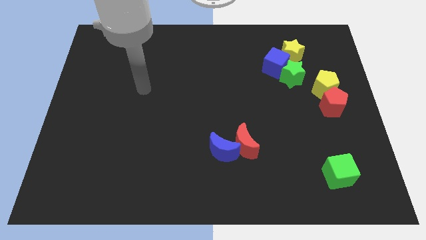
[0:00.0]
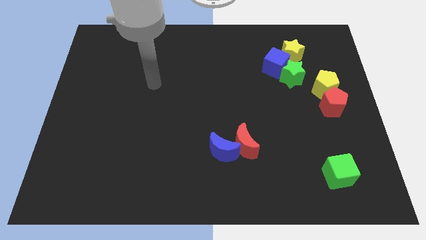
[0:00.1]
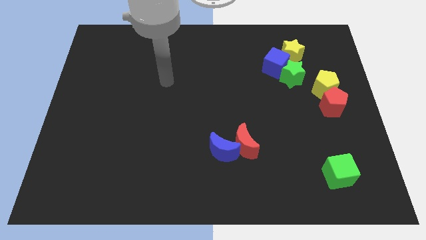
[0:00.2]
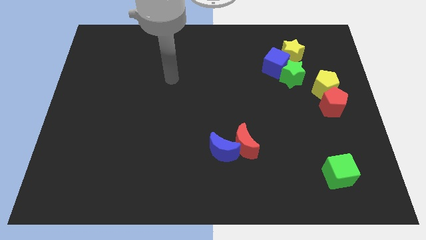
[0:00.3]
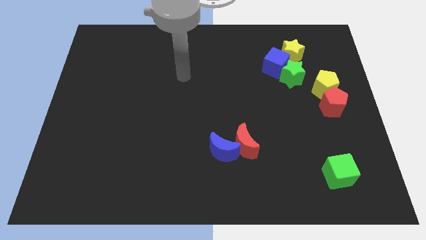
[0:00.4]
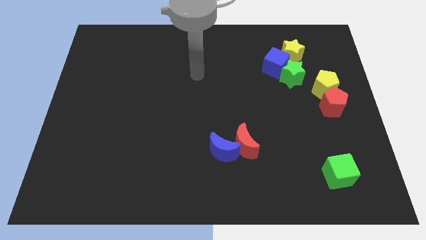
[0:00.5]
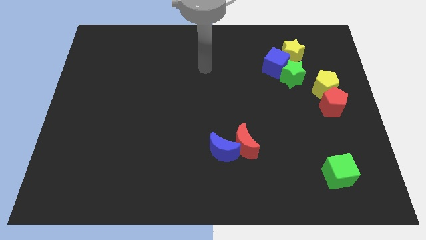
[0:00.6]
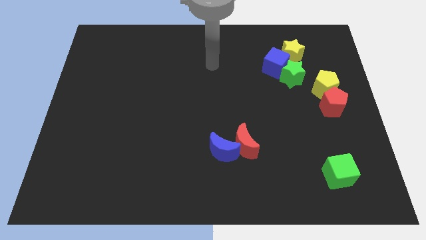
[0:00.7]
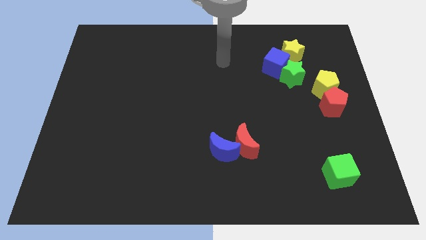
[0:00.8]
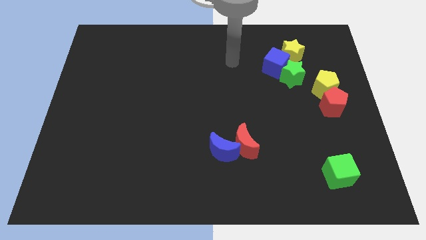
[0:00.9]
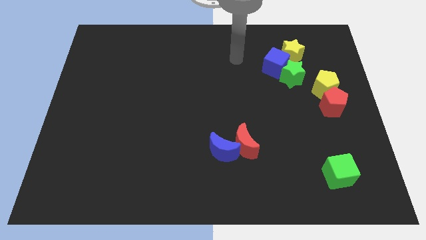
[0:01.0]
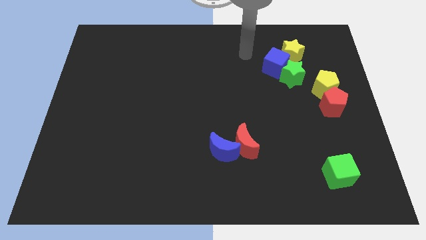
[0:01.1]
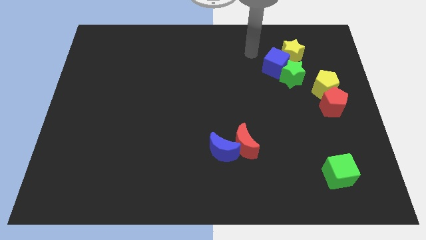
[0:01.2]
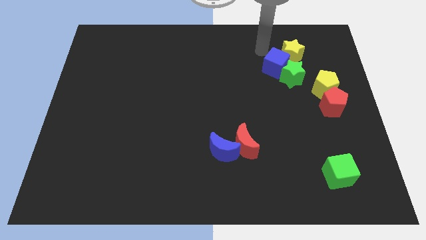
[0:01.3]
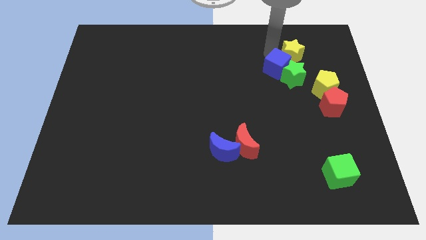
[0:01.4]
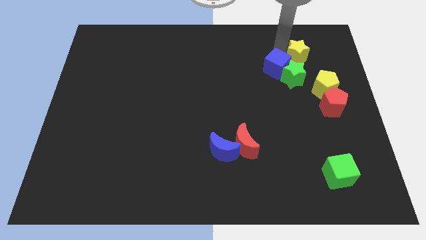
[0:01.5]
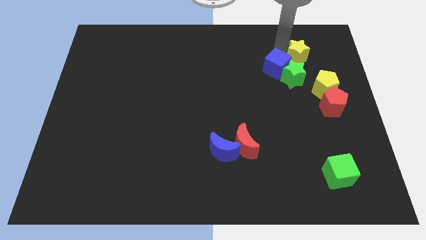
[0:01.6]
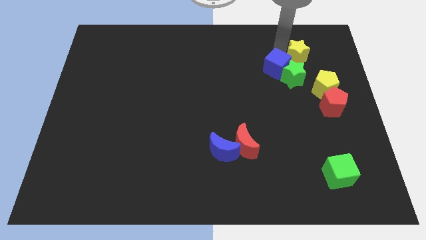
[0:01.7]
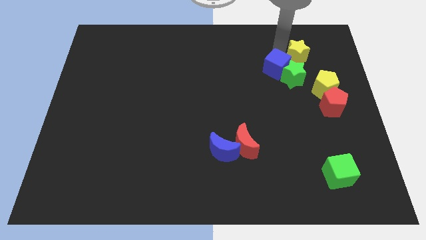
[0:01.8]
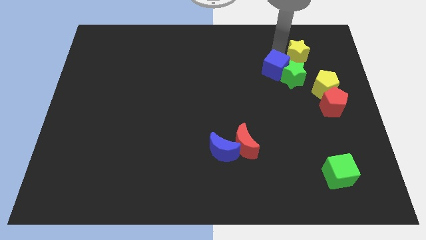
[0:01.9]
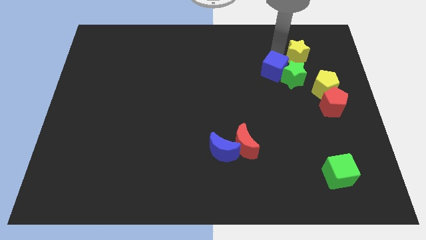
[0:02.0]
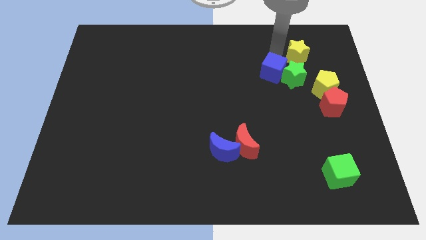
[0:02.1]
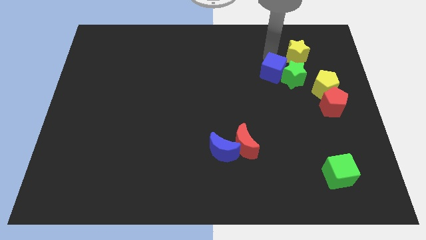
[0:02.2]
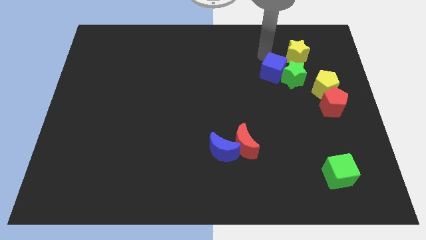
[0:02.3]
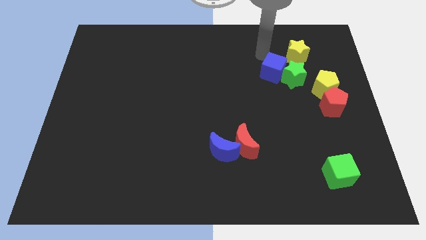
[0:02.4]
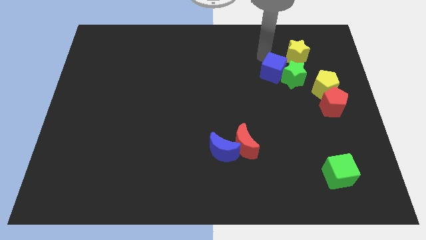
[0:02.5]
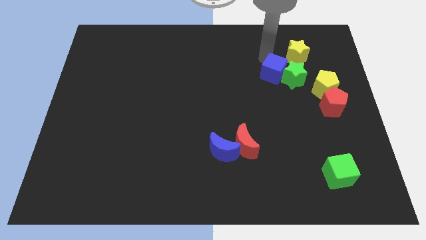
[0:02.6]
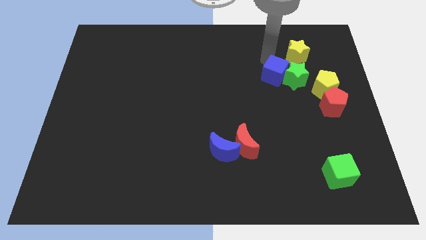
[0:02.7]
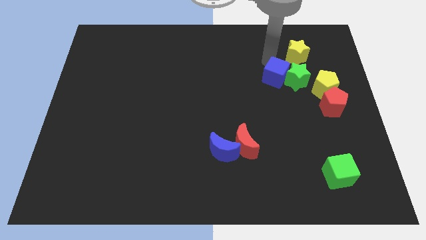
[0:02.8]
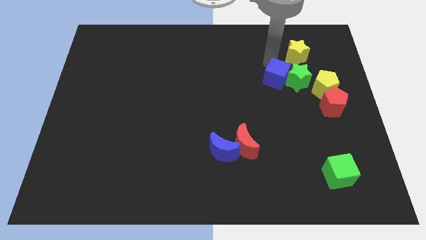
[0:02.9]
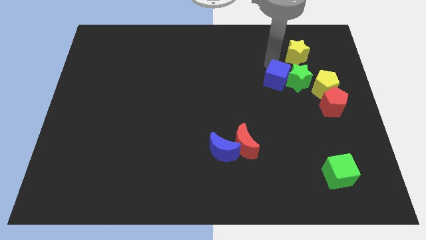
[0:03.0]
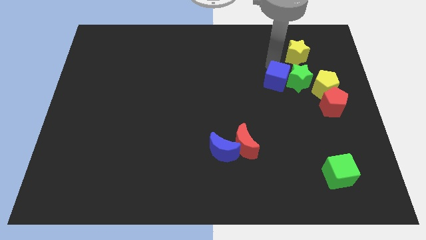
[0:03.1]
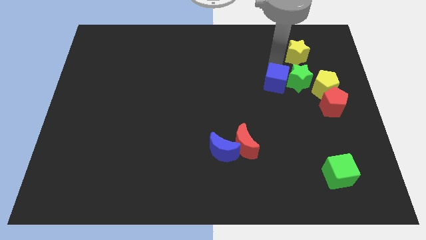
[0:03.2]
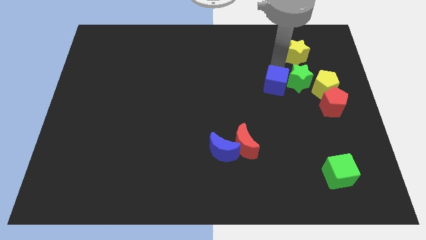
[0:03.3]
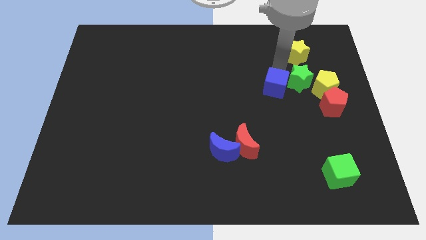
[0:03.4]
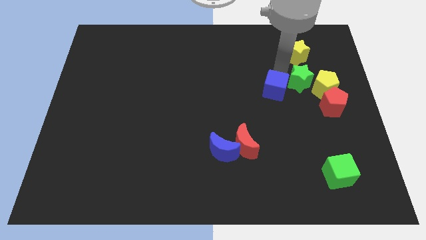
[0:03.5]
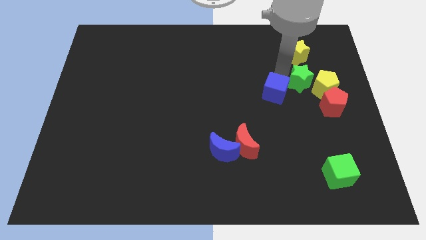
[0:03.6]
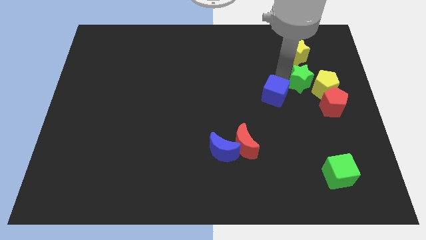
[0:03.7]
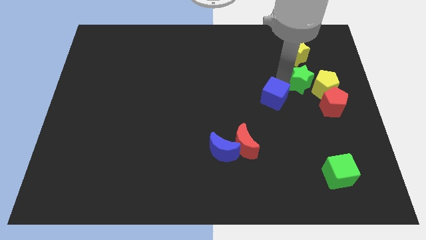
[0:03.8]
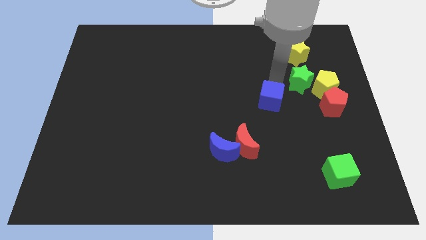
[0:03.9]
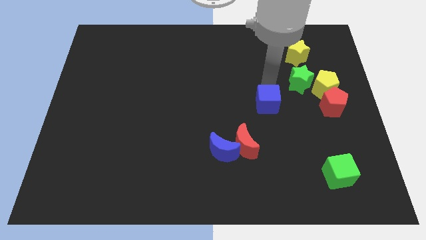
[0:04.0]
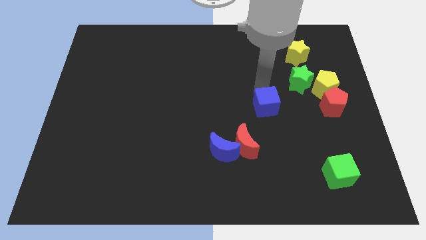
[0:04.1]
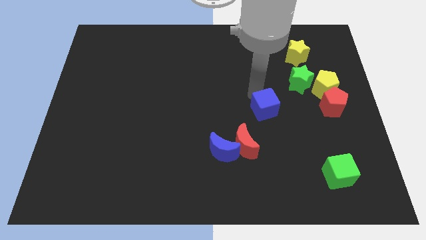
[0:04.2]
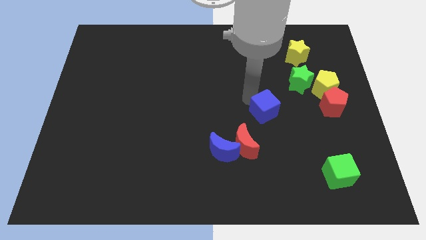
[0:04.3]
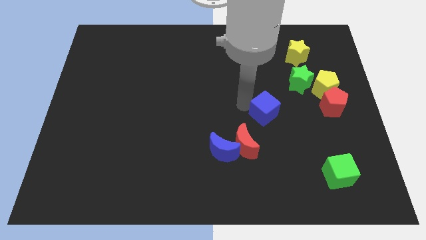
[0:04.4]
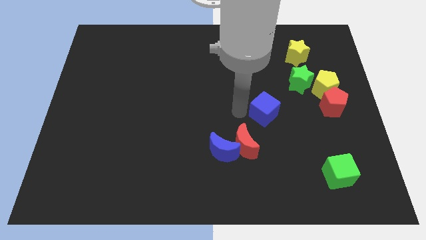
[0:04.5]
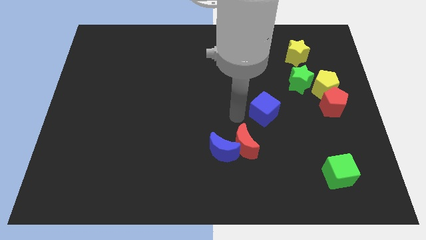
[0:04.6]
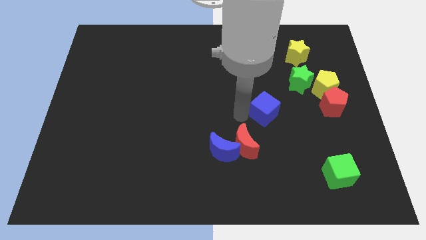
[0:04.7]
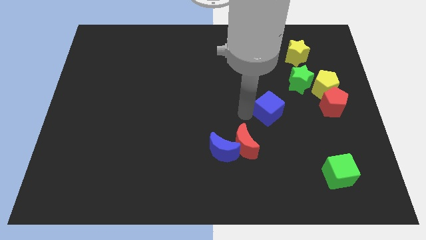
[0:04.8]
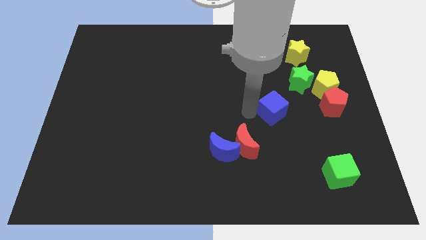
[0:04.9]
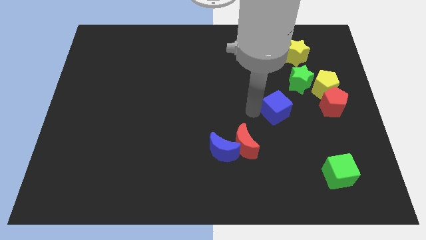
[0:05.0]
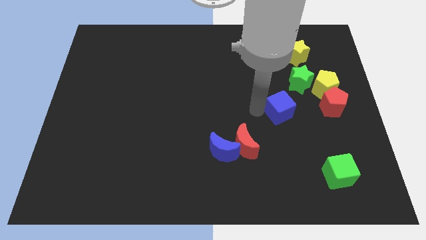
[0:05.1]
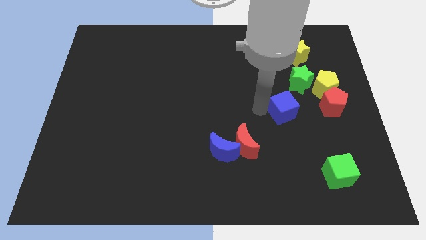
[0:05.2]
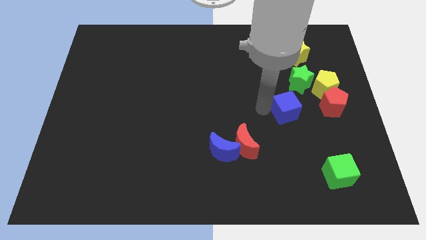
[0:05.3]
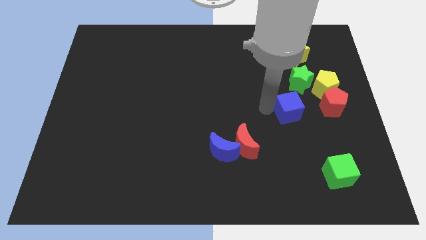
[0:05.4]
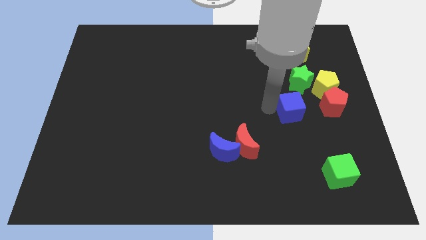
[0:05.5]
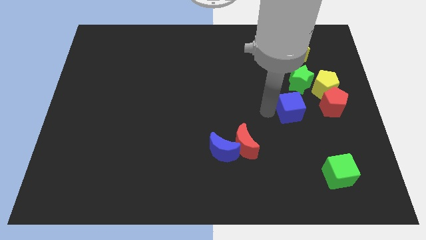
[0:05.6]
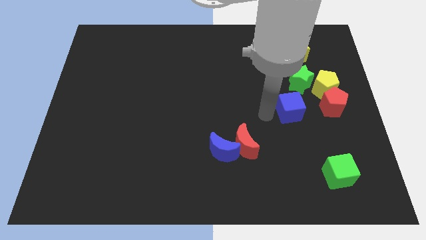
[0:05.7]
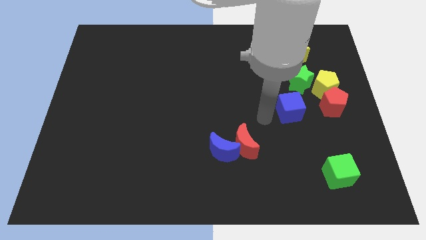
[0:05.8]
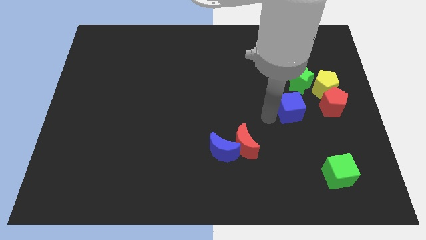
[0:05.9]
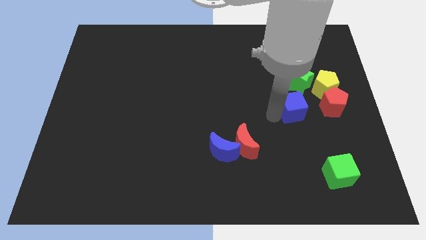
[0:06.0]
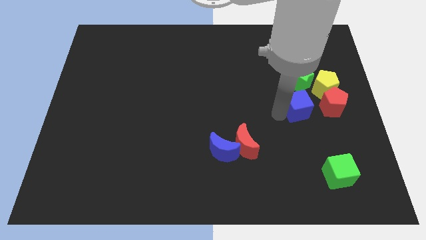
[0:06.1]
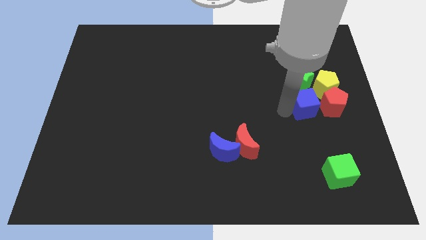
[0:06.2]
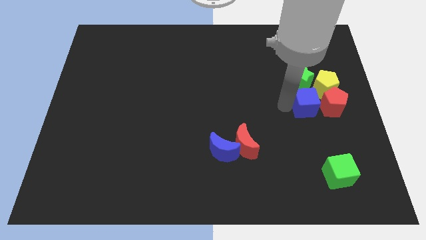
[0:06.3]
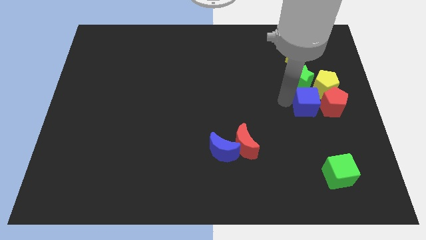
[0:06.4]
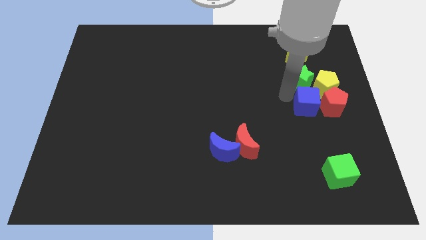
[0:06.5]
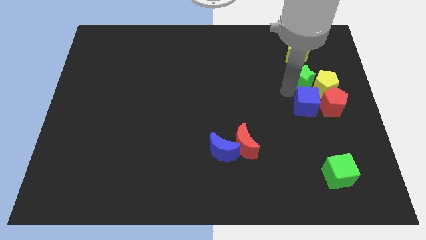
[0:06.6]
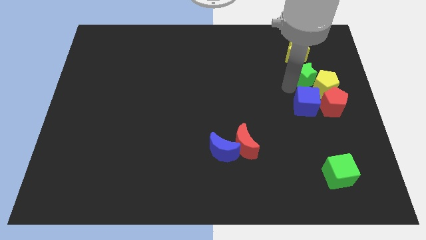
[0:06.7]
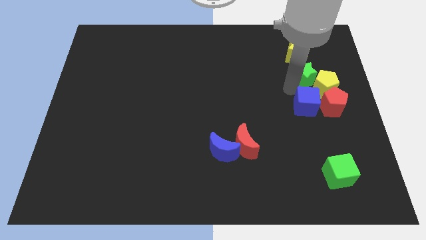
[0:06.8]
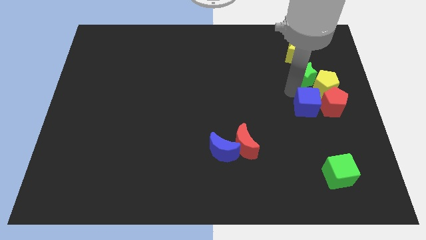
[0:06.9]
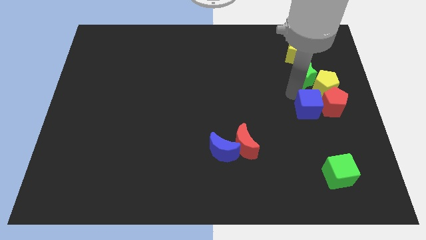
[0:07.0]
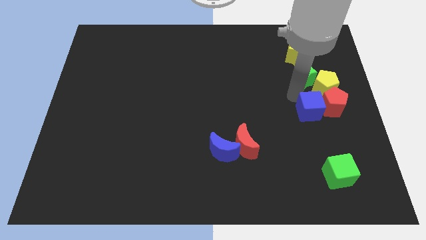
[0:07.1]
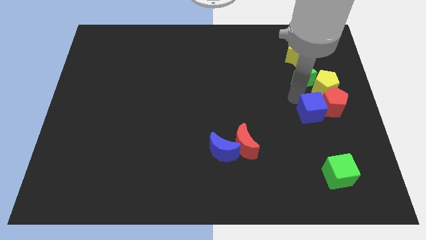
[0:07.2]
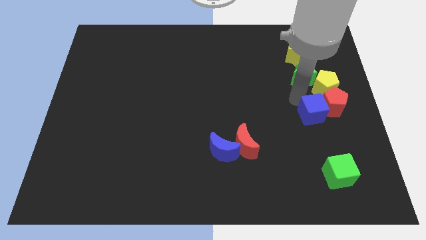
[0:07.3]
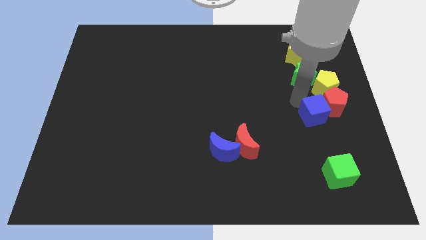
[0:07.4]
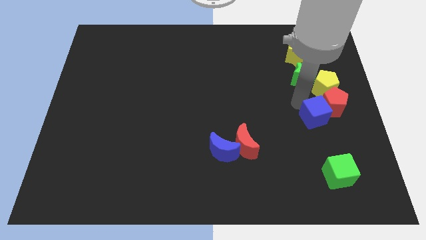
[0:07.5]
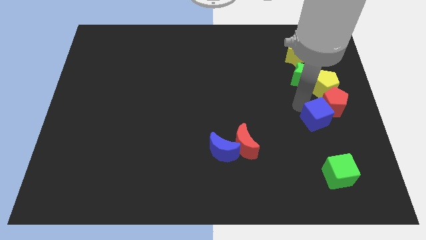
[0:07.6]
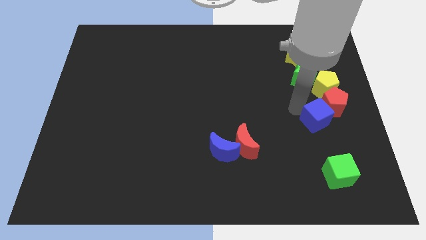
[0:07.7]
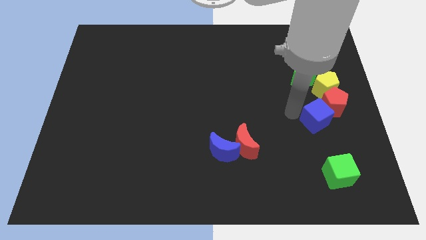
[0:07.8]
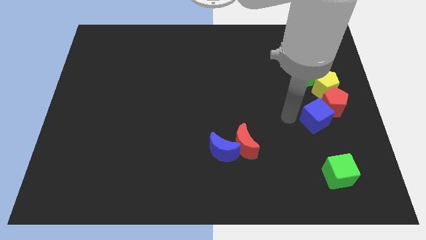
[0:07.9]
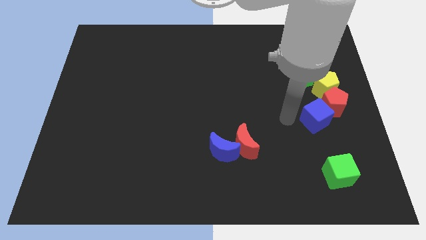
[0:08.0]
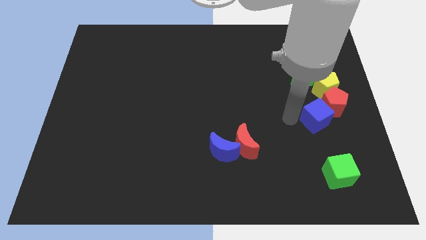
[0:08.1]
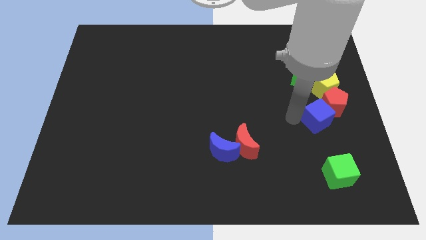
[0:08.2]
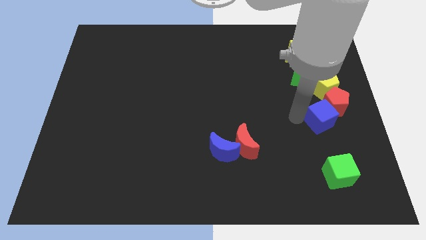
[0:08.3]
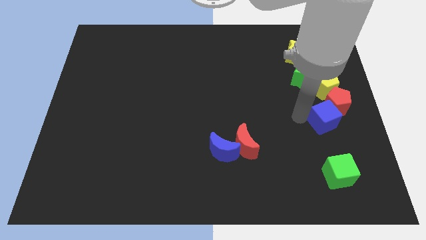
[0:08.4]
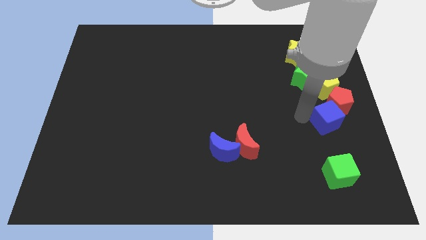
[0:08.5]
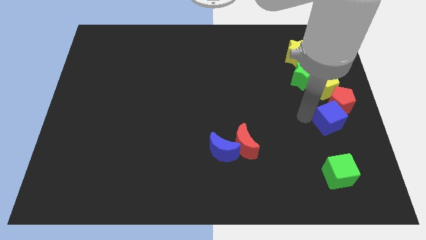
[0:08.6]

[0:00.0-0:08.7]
put the blue cube to the center right
